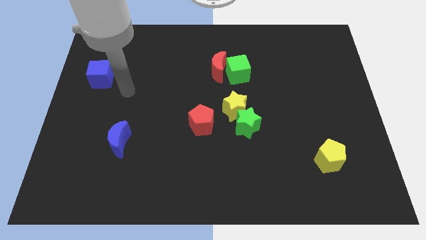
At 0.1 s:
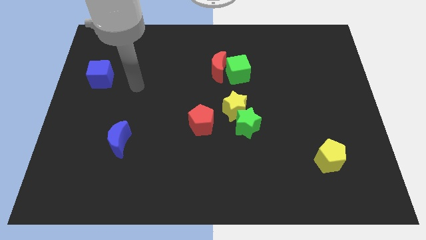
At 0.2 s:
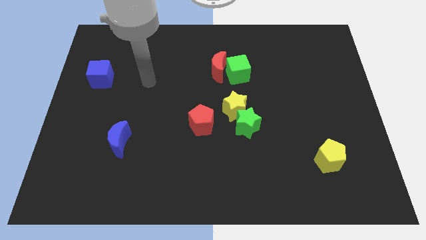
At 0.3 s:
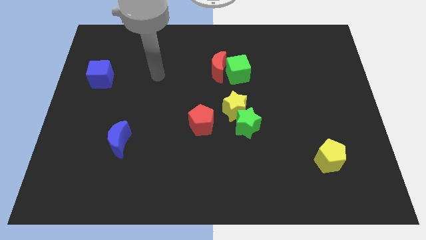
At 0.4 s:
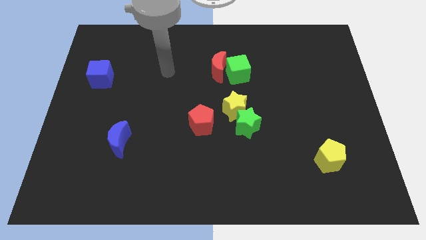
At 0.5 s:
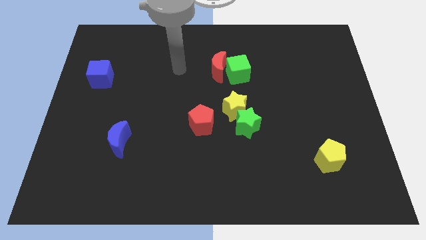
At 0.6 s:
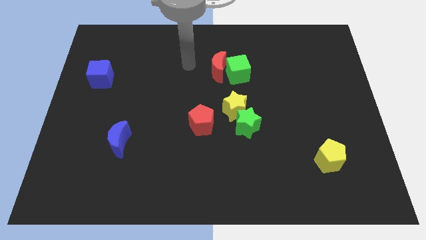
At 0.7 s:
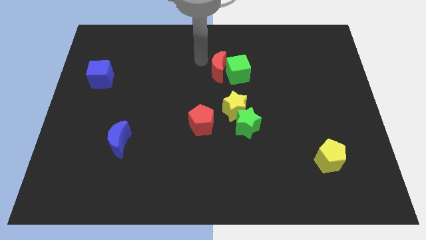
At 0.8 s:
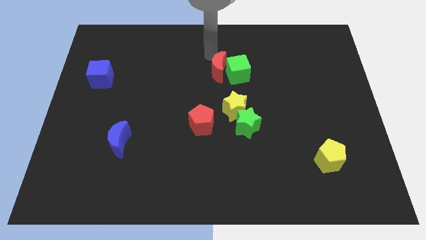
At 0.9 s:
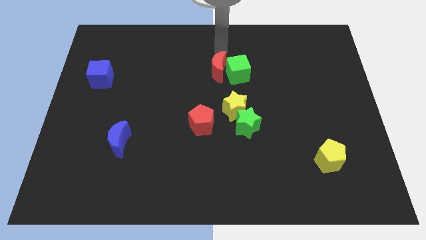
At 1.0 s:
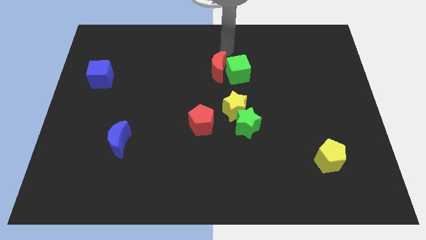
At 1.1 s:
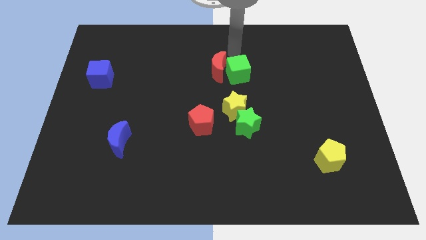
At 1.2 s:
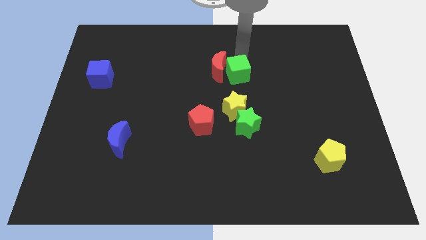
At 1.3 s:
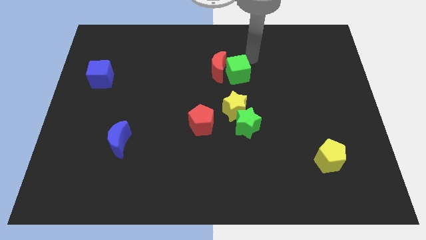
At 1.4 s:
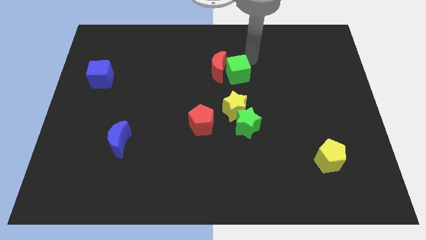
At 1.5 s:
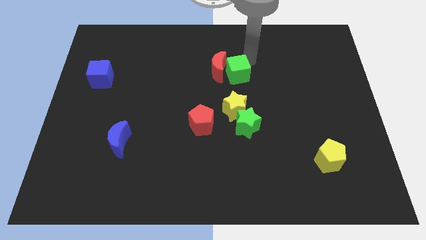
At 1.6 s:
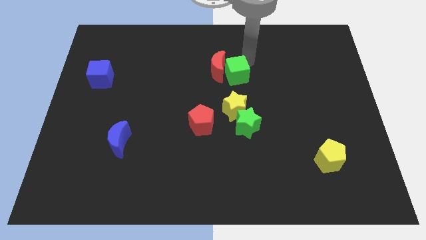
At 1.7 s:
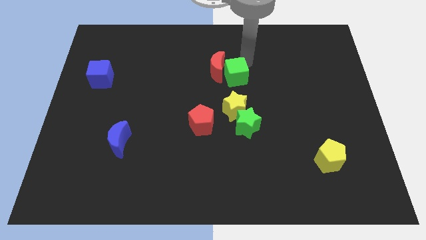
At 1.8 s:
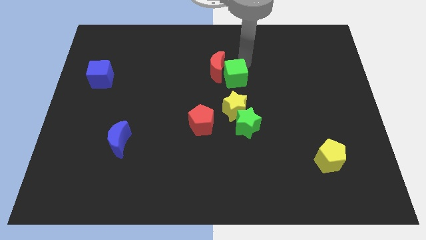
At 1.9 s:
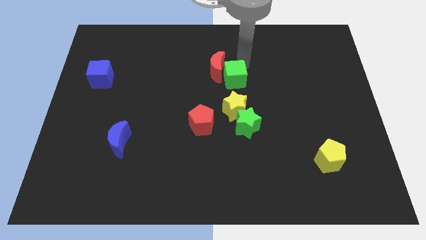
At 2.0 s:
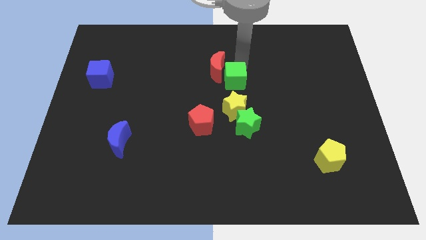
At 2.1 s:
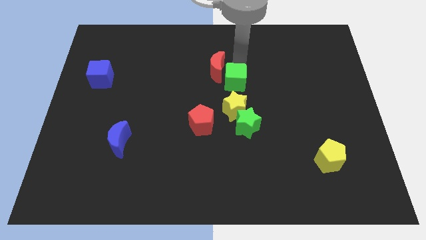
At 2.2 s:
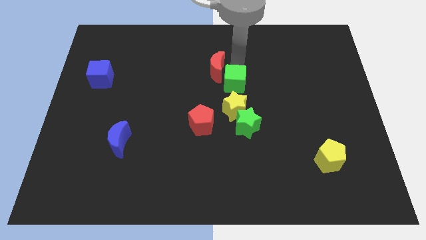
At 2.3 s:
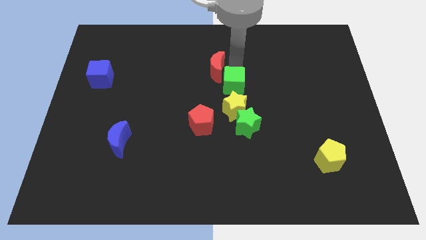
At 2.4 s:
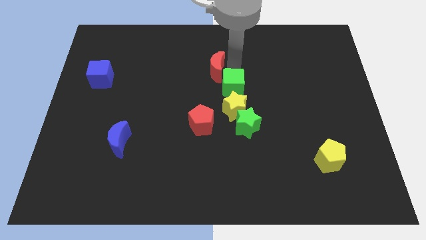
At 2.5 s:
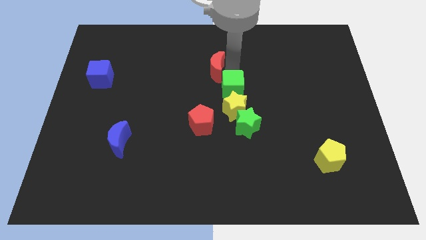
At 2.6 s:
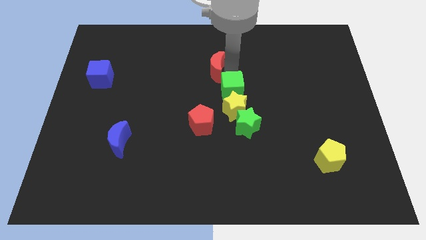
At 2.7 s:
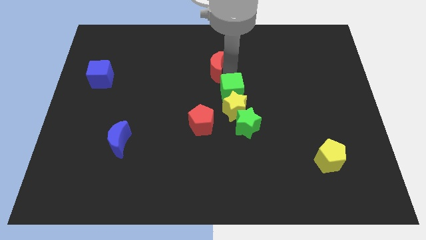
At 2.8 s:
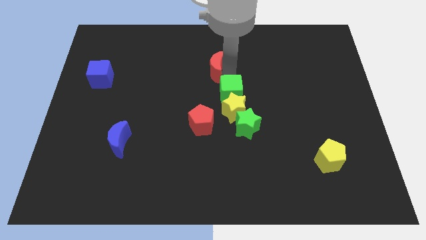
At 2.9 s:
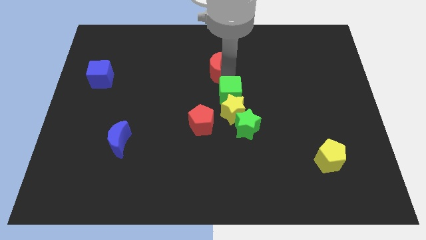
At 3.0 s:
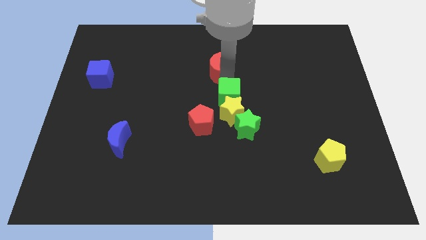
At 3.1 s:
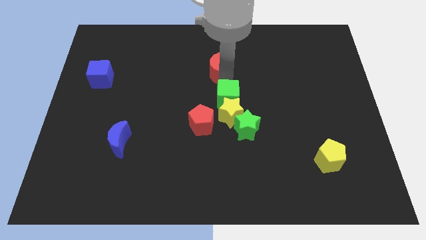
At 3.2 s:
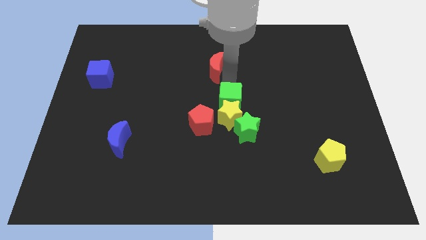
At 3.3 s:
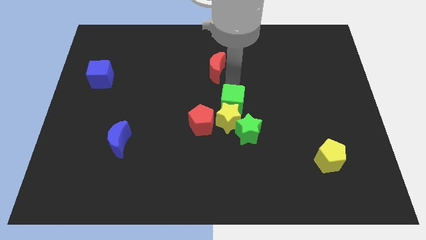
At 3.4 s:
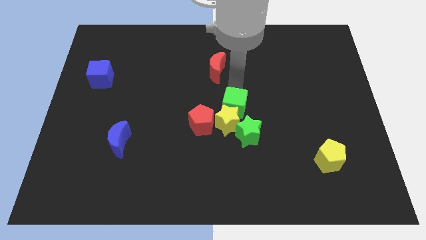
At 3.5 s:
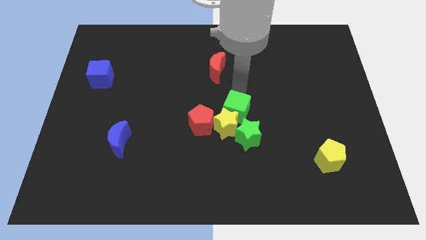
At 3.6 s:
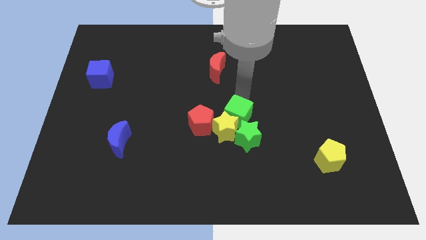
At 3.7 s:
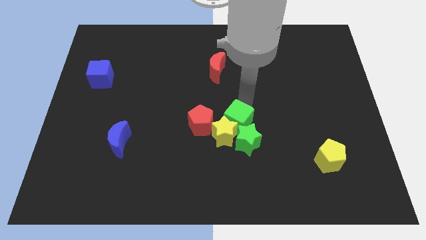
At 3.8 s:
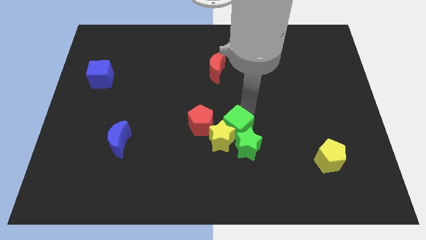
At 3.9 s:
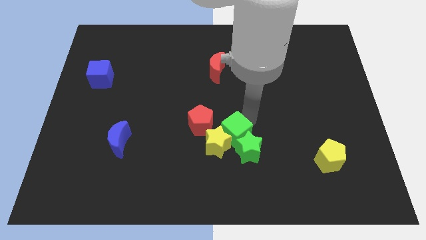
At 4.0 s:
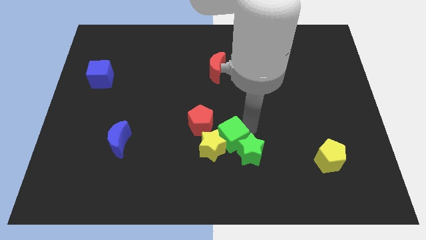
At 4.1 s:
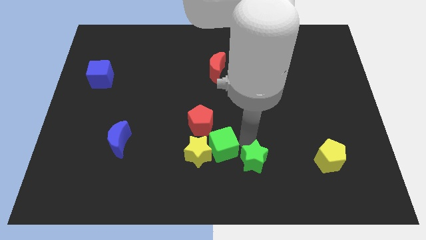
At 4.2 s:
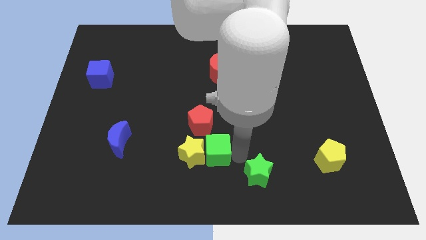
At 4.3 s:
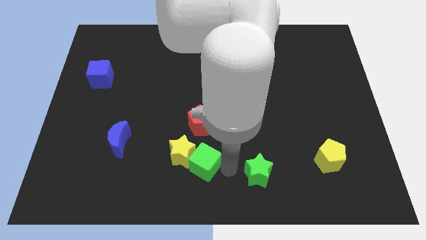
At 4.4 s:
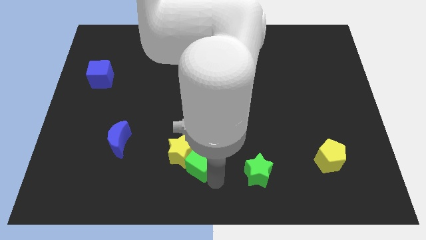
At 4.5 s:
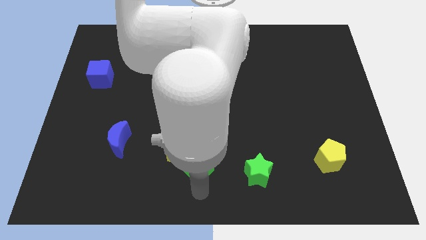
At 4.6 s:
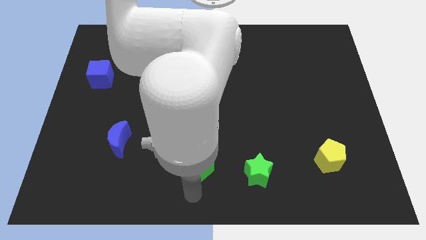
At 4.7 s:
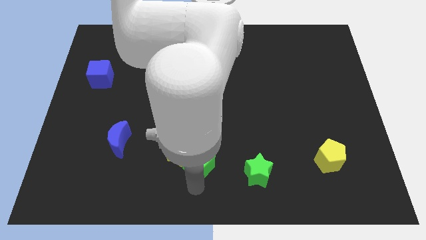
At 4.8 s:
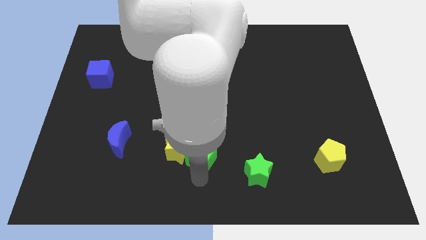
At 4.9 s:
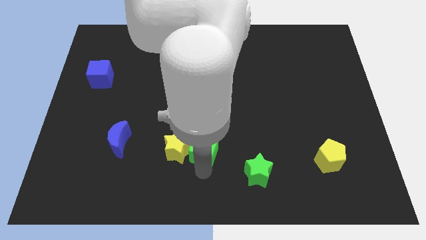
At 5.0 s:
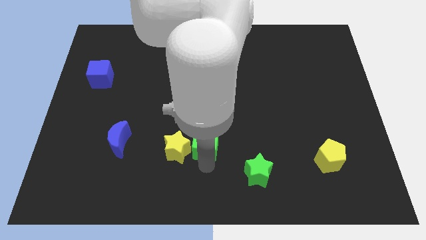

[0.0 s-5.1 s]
put the green cube to the red pentagon

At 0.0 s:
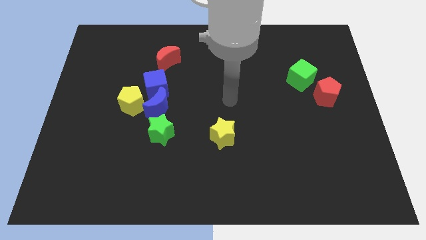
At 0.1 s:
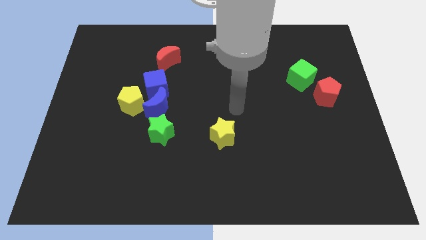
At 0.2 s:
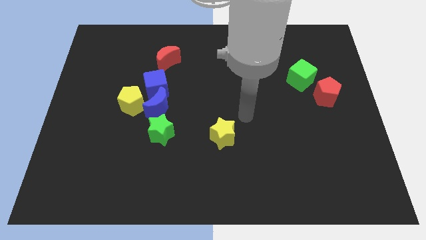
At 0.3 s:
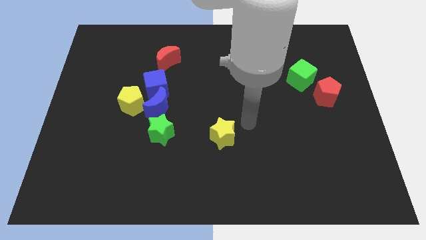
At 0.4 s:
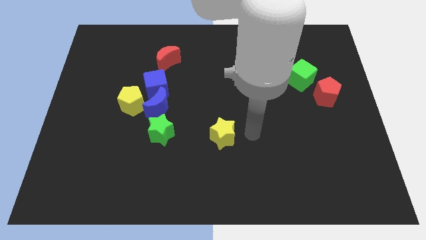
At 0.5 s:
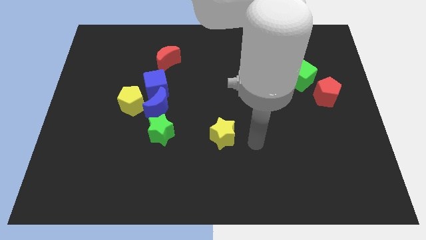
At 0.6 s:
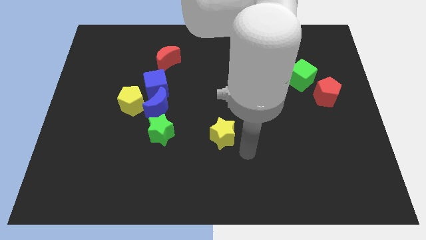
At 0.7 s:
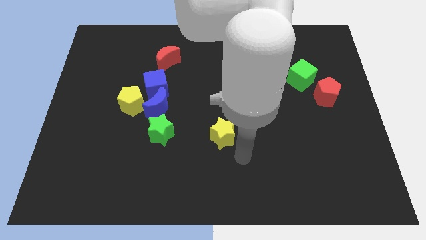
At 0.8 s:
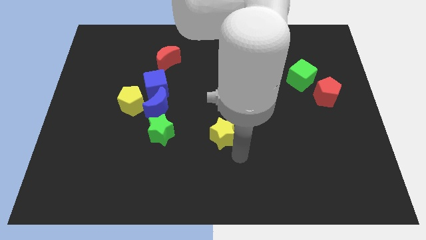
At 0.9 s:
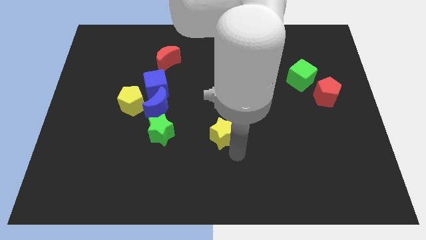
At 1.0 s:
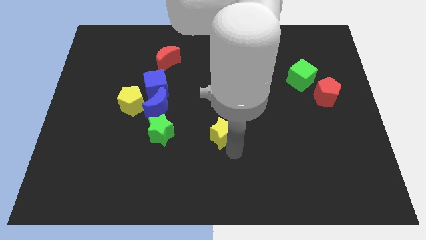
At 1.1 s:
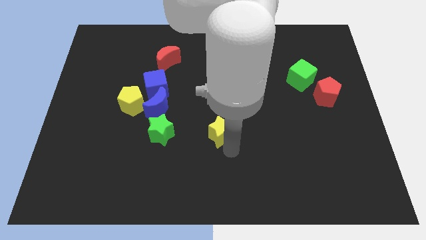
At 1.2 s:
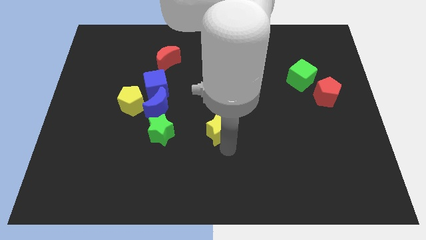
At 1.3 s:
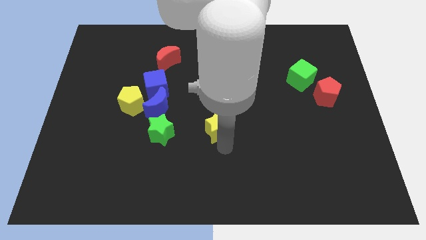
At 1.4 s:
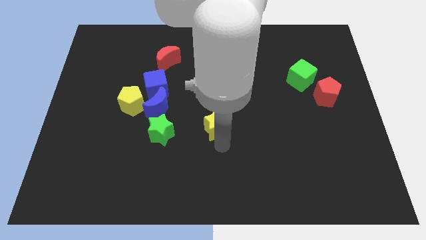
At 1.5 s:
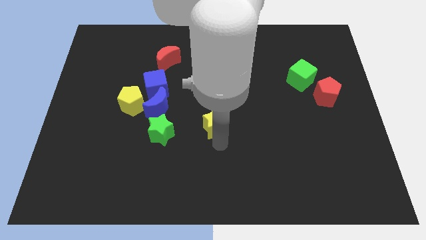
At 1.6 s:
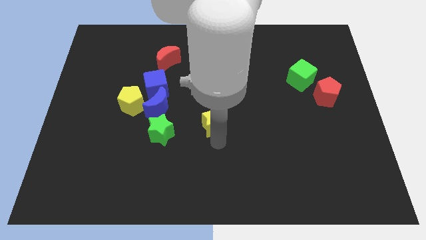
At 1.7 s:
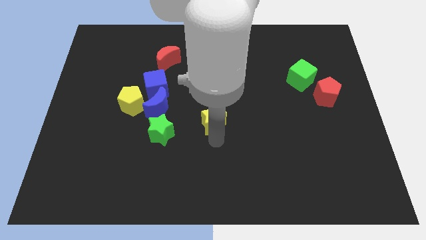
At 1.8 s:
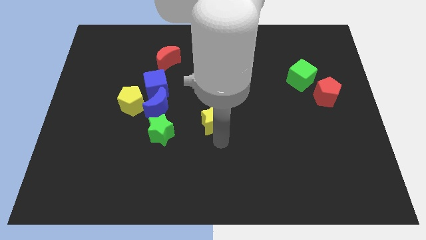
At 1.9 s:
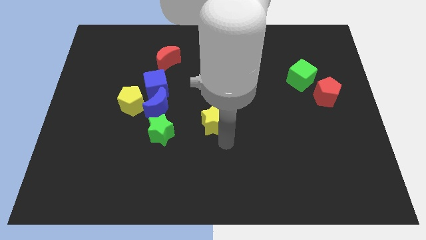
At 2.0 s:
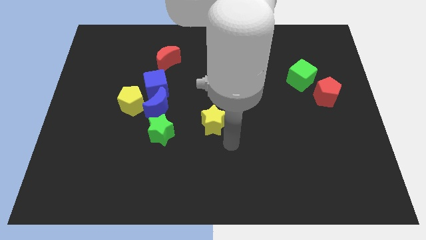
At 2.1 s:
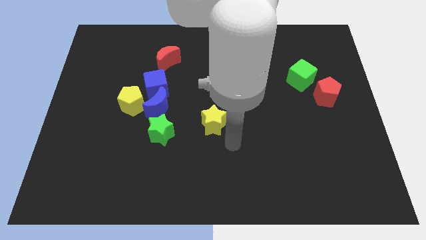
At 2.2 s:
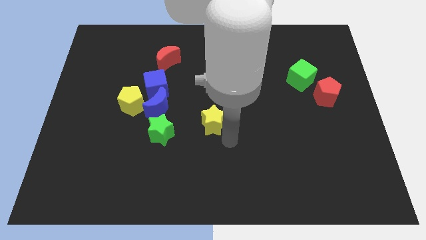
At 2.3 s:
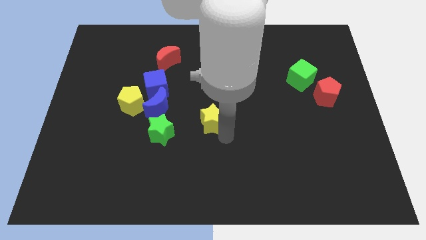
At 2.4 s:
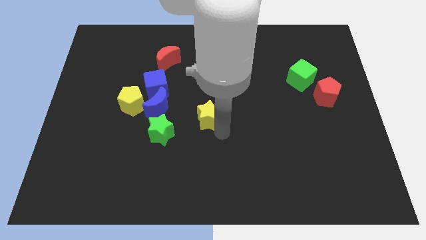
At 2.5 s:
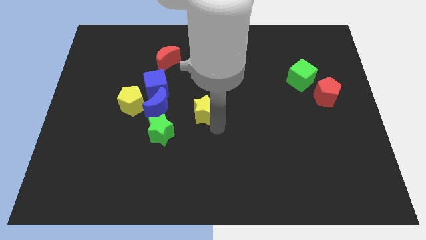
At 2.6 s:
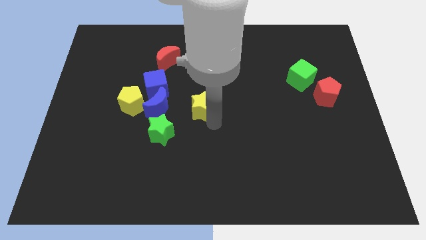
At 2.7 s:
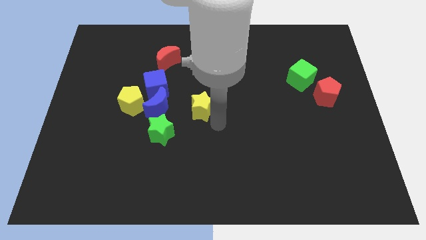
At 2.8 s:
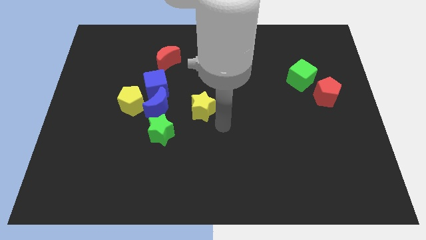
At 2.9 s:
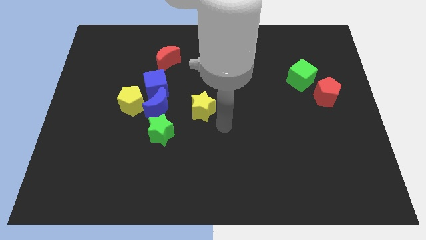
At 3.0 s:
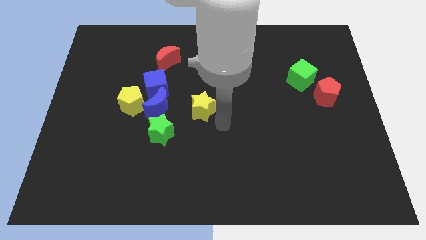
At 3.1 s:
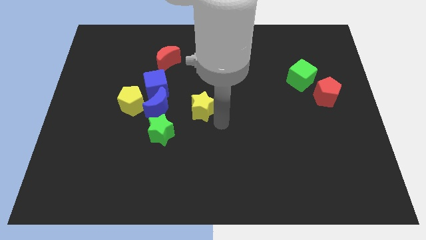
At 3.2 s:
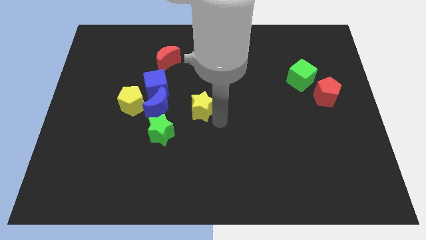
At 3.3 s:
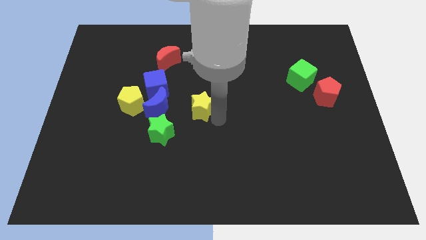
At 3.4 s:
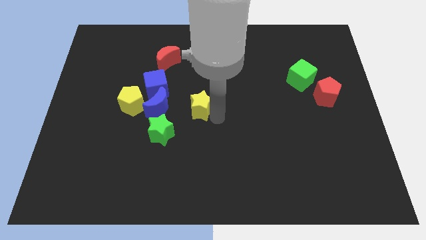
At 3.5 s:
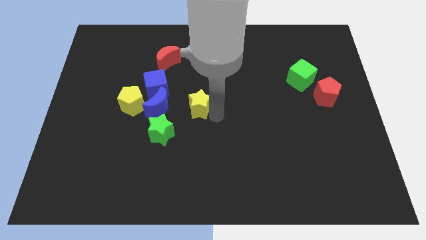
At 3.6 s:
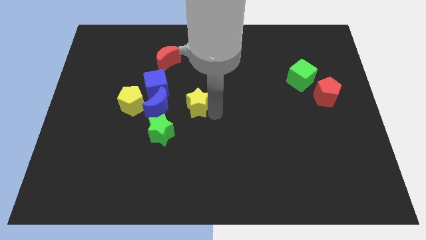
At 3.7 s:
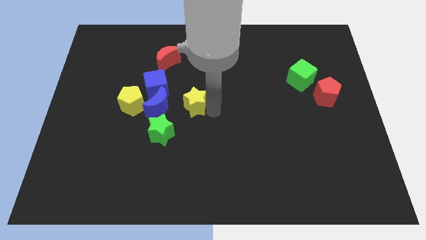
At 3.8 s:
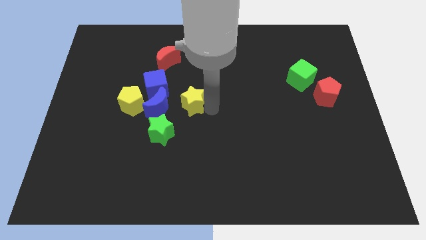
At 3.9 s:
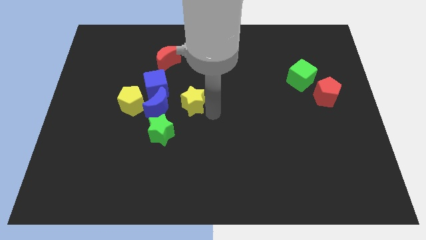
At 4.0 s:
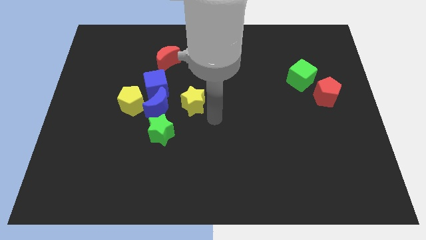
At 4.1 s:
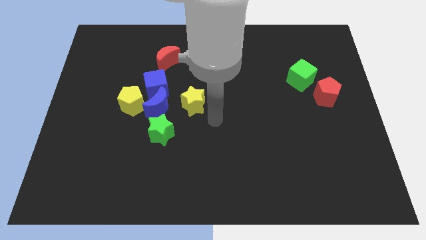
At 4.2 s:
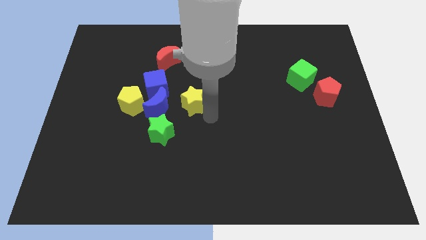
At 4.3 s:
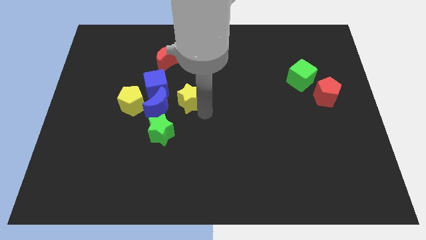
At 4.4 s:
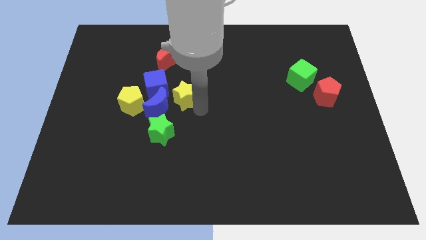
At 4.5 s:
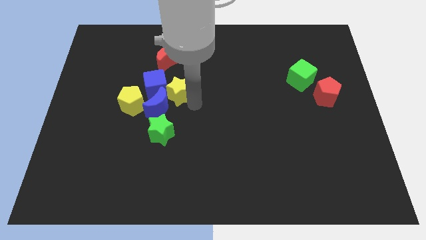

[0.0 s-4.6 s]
put the yellow star close to the blue cube
